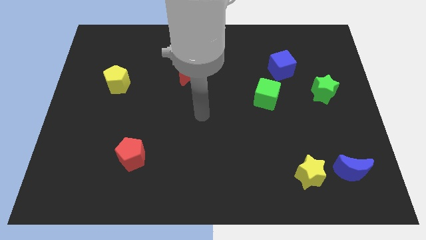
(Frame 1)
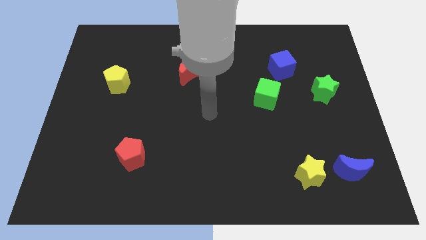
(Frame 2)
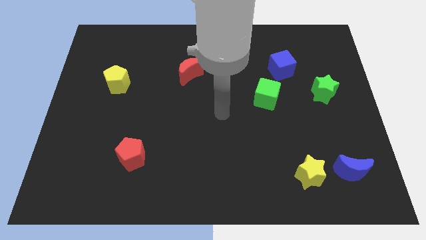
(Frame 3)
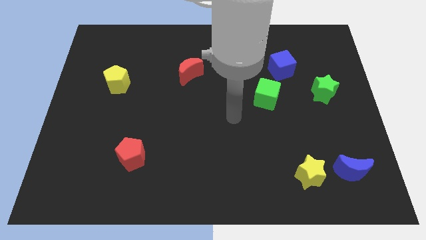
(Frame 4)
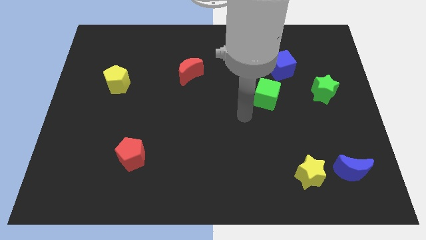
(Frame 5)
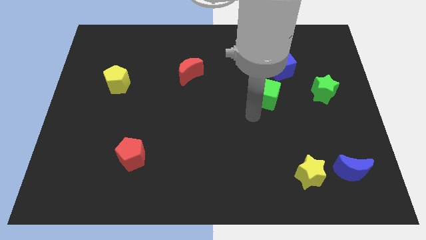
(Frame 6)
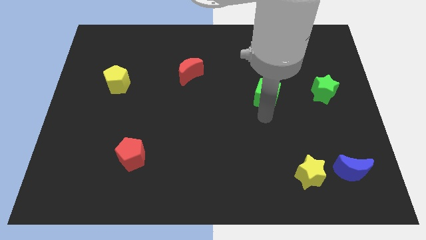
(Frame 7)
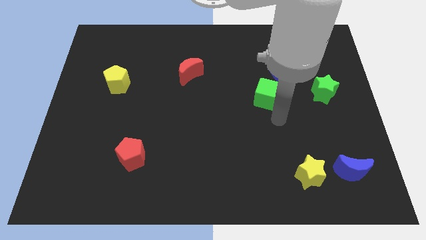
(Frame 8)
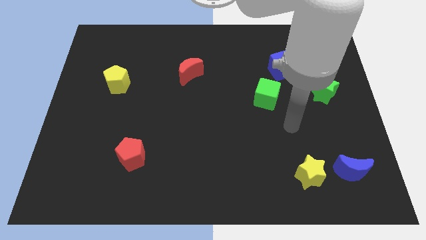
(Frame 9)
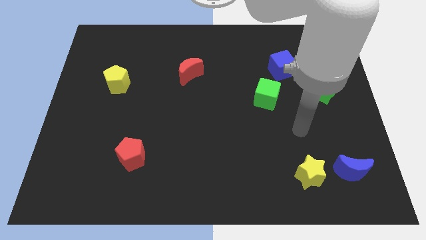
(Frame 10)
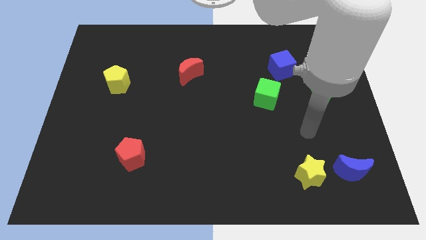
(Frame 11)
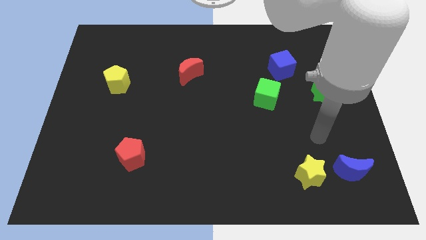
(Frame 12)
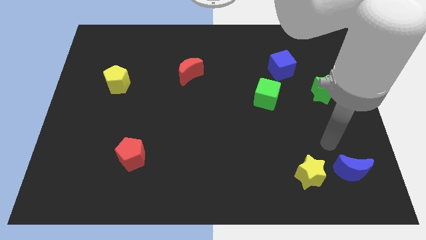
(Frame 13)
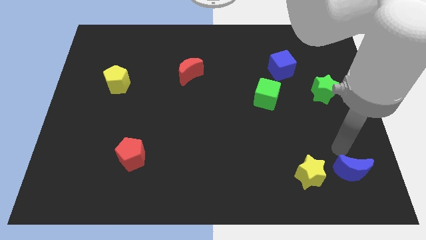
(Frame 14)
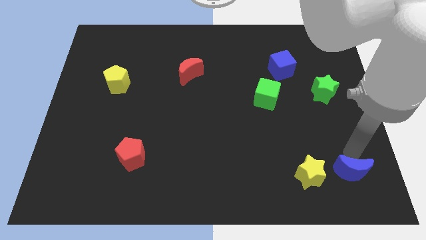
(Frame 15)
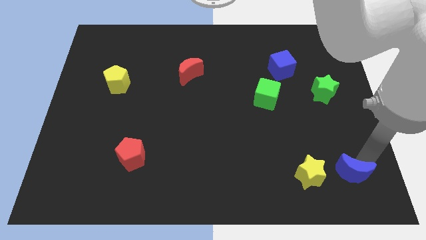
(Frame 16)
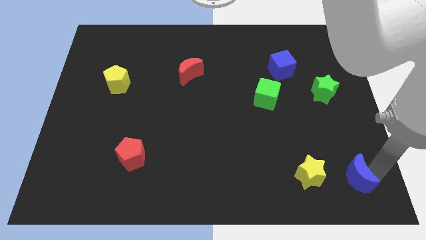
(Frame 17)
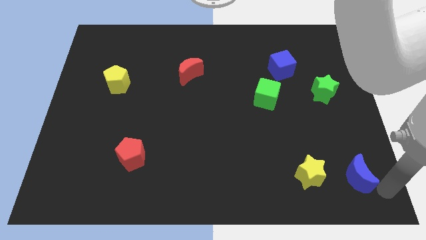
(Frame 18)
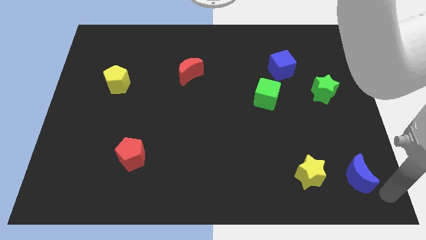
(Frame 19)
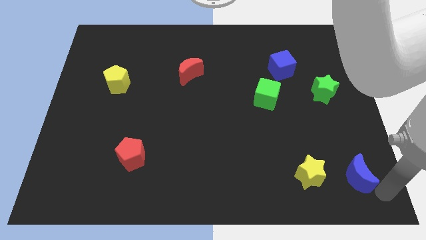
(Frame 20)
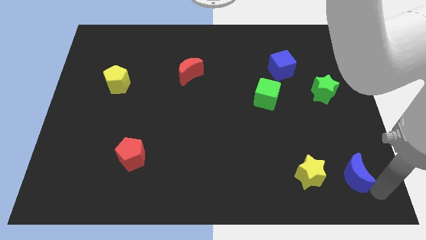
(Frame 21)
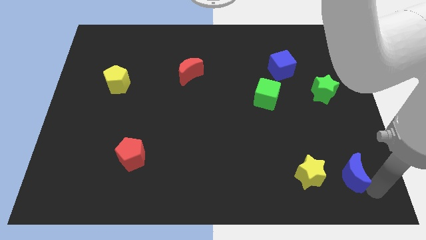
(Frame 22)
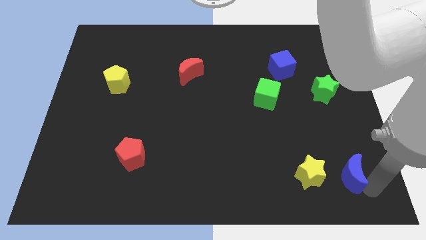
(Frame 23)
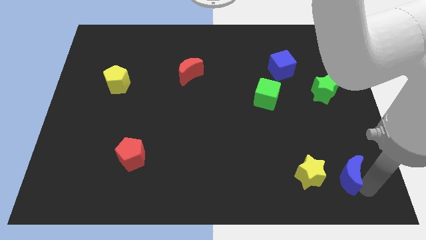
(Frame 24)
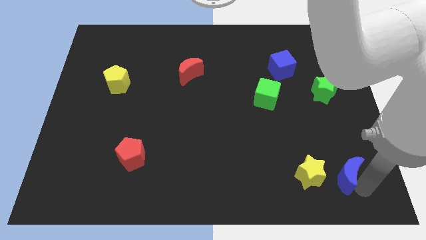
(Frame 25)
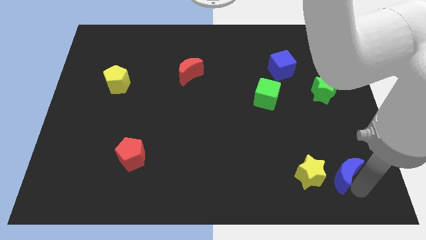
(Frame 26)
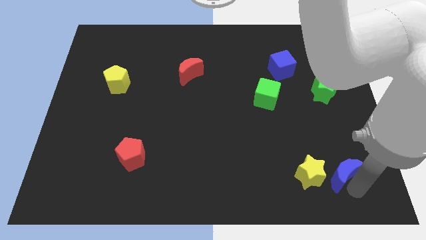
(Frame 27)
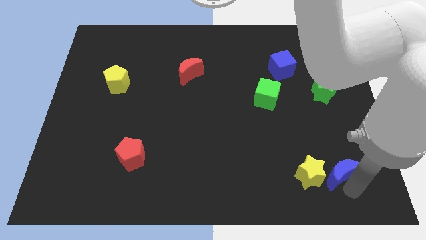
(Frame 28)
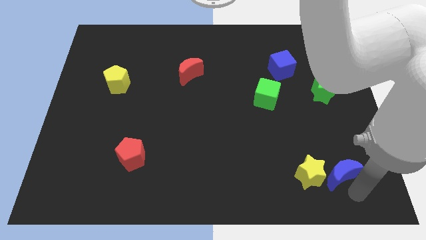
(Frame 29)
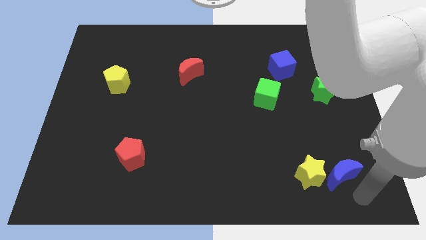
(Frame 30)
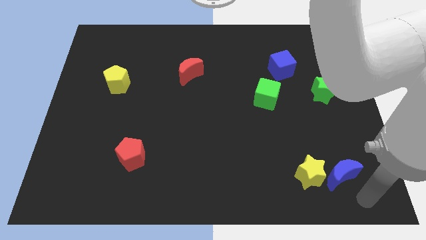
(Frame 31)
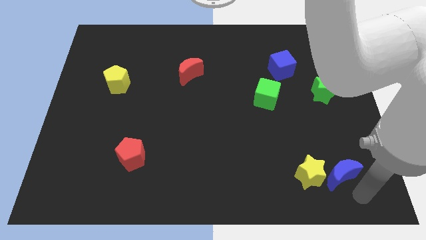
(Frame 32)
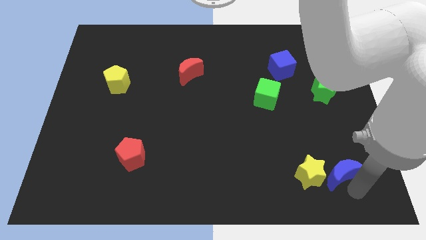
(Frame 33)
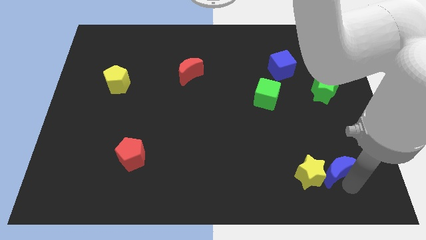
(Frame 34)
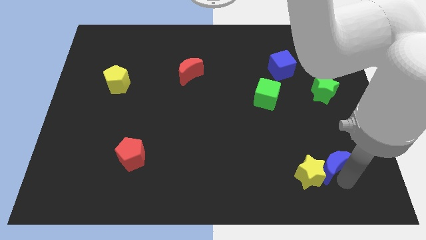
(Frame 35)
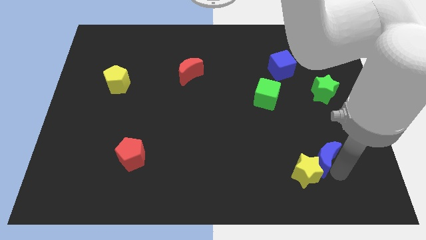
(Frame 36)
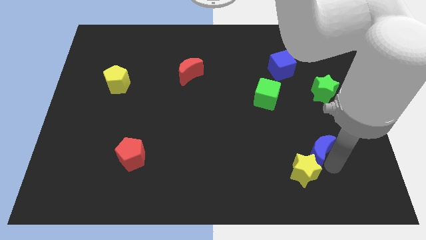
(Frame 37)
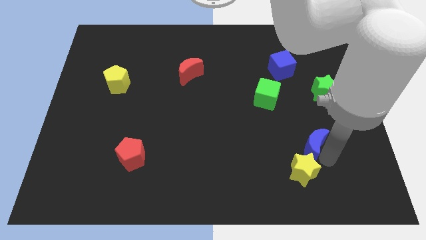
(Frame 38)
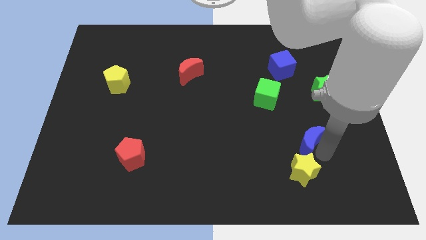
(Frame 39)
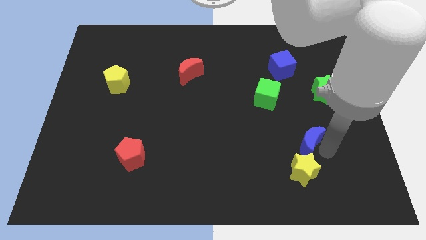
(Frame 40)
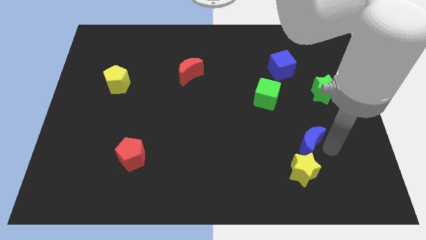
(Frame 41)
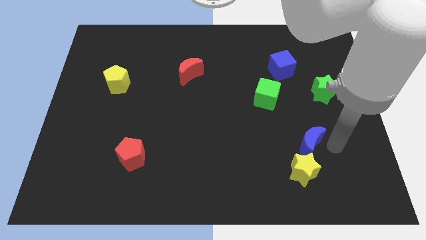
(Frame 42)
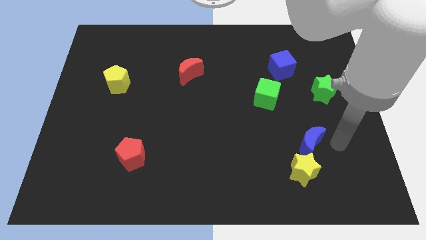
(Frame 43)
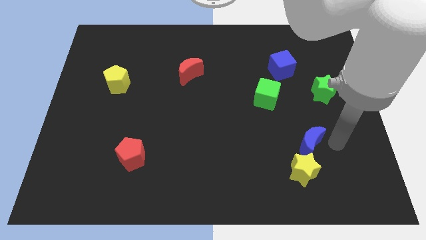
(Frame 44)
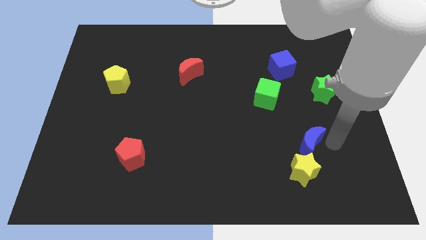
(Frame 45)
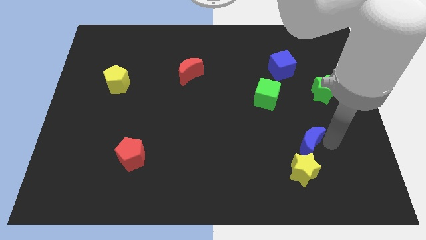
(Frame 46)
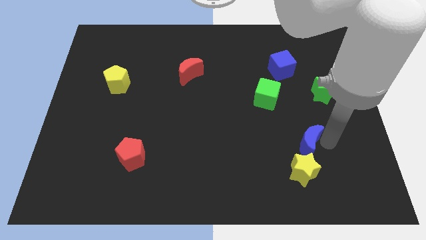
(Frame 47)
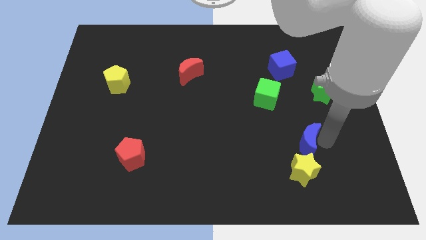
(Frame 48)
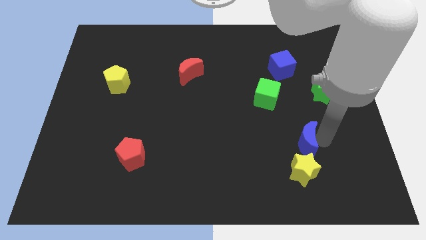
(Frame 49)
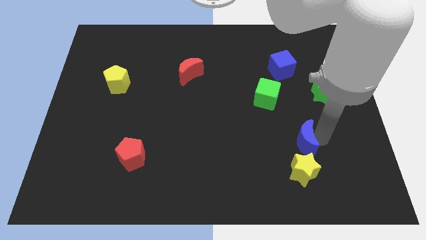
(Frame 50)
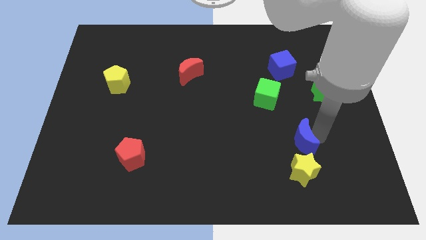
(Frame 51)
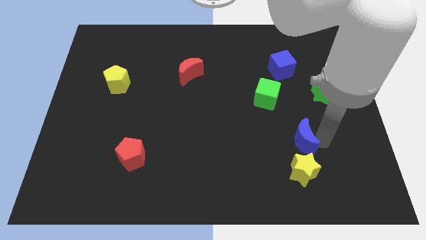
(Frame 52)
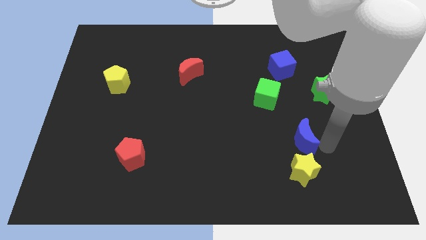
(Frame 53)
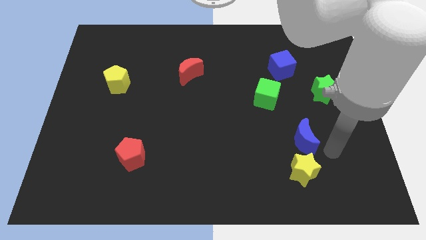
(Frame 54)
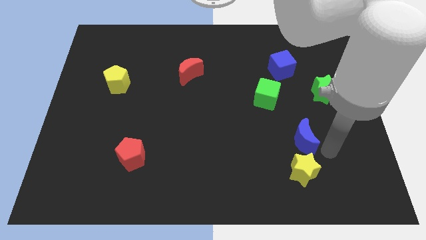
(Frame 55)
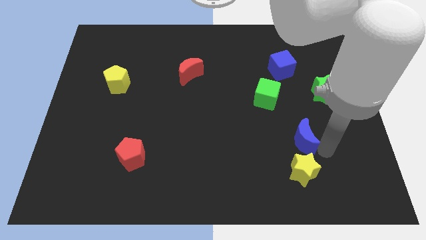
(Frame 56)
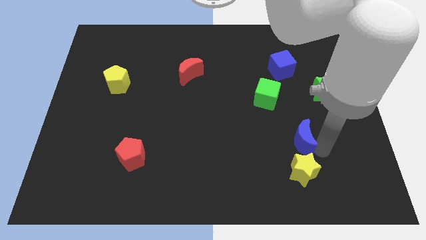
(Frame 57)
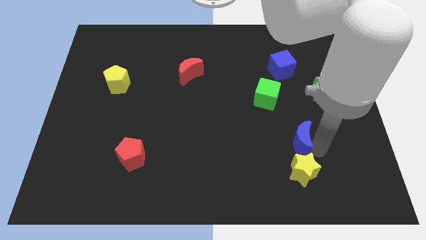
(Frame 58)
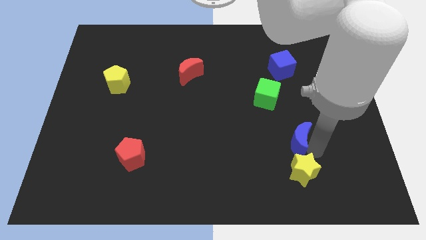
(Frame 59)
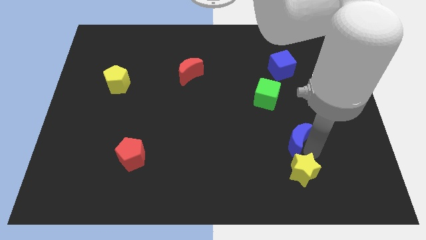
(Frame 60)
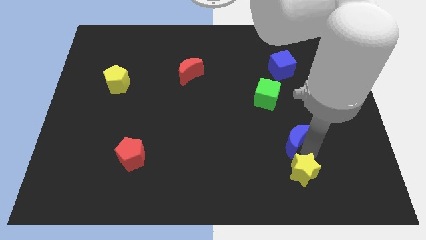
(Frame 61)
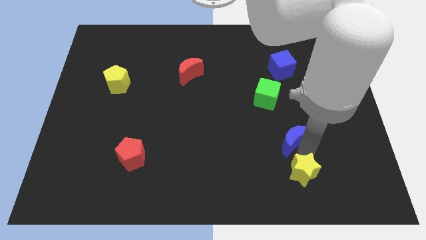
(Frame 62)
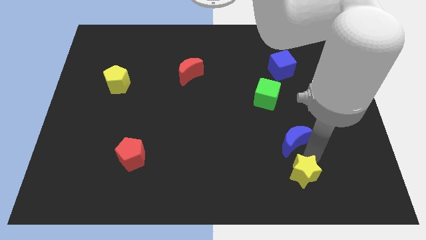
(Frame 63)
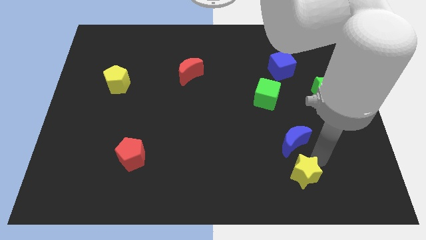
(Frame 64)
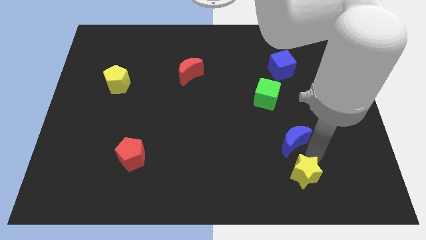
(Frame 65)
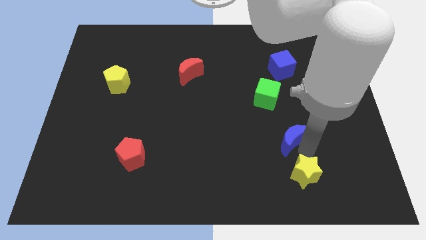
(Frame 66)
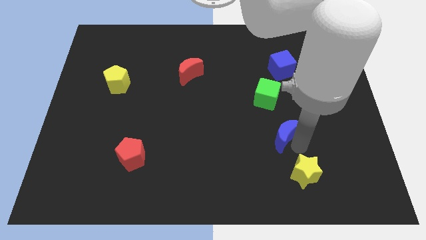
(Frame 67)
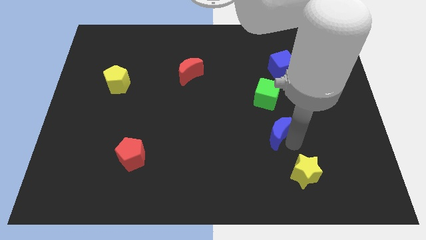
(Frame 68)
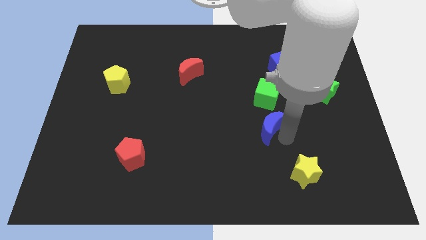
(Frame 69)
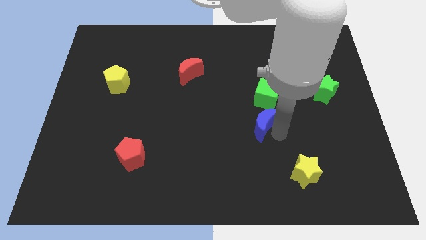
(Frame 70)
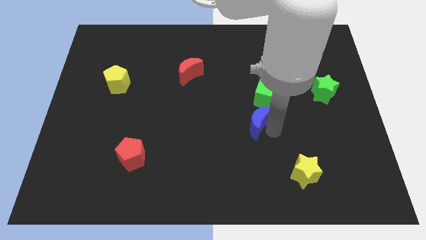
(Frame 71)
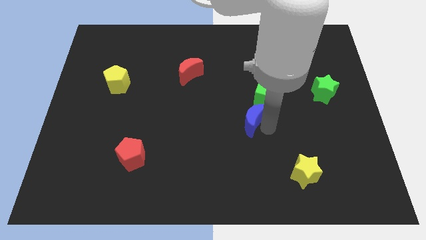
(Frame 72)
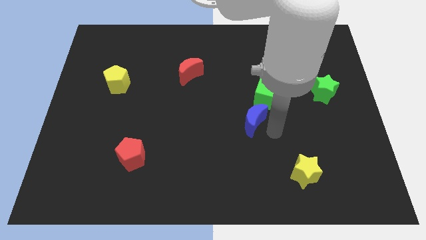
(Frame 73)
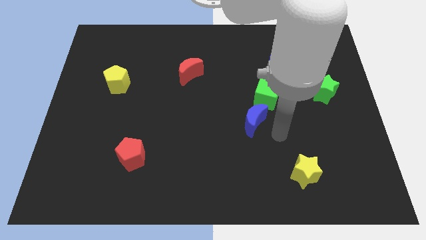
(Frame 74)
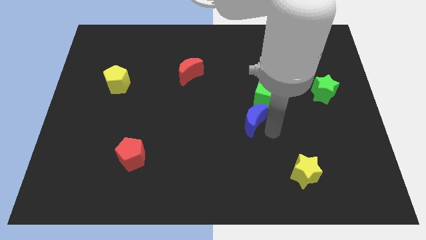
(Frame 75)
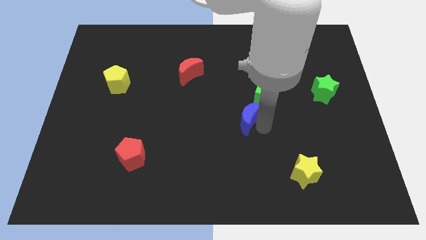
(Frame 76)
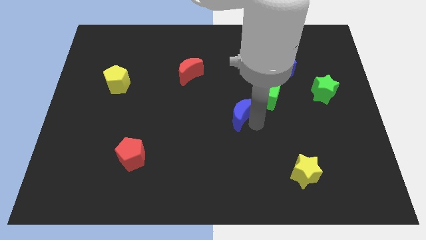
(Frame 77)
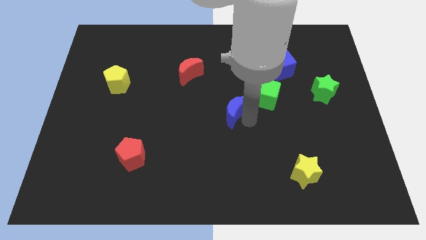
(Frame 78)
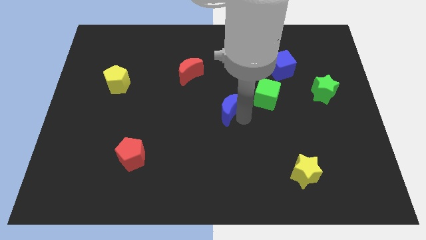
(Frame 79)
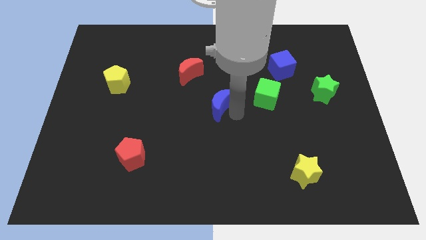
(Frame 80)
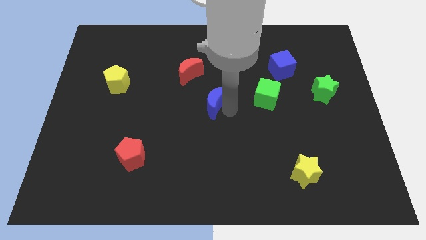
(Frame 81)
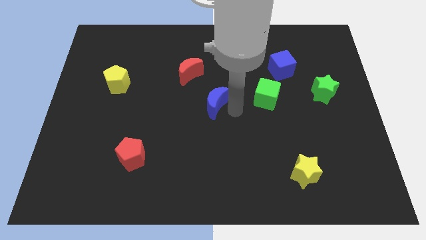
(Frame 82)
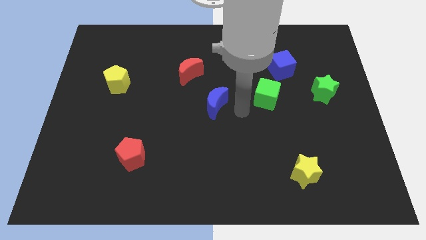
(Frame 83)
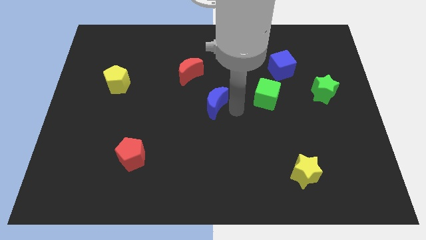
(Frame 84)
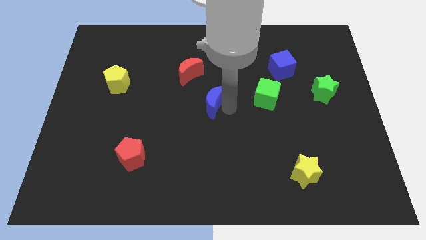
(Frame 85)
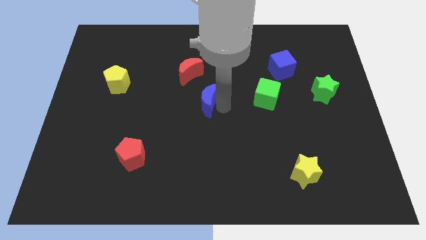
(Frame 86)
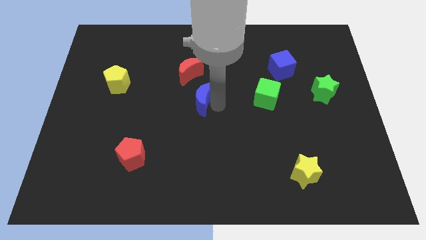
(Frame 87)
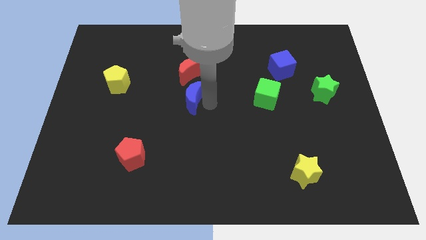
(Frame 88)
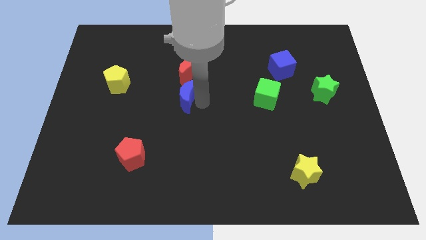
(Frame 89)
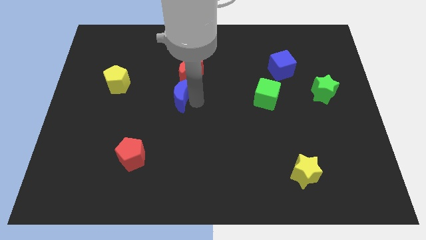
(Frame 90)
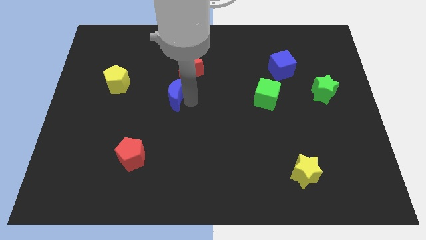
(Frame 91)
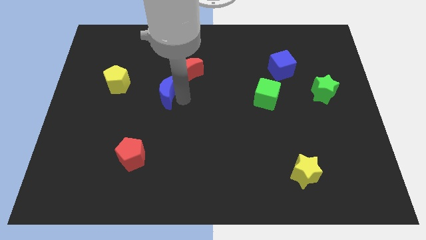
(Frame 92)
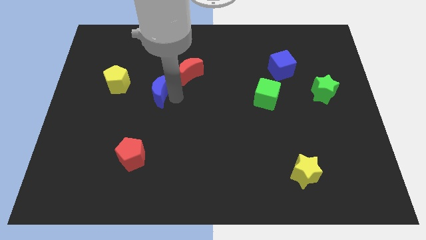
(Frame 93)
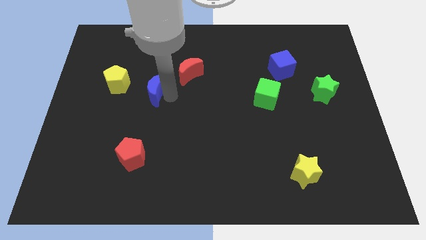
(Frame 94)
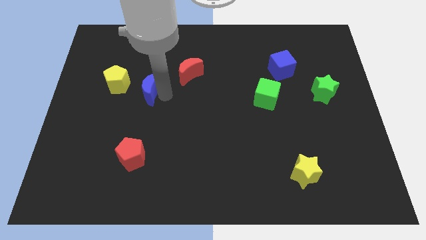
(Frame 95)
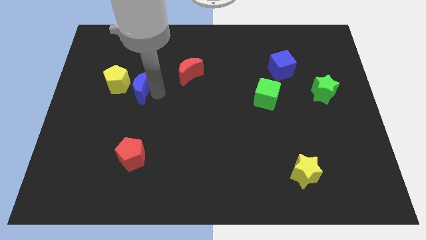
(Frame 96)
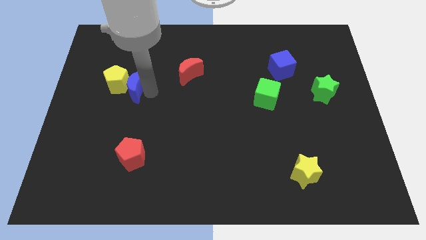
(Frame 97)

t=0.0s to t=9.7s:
slide the blue moon close to the yellow pentagon
